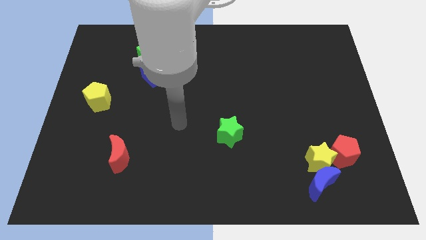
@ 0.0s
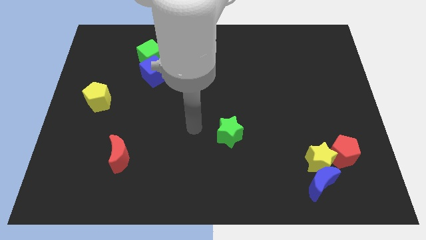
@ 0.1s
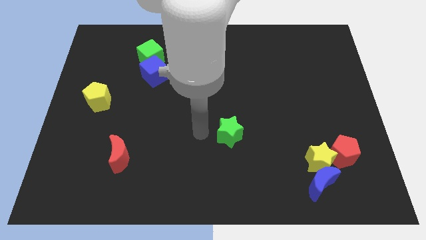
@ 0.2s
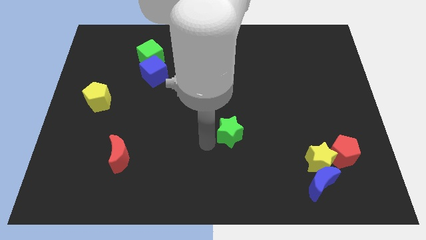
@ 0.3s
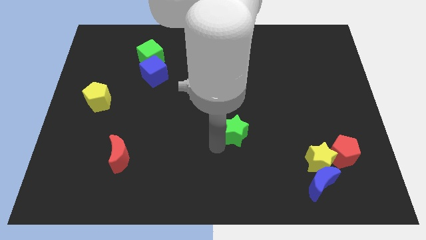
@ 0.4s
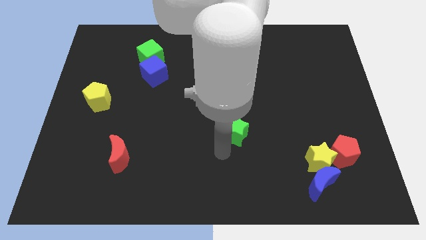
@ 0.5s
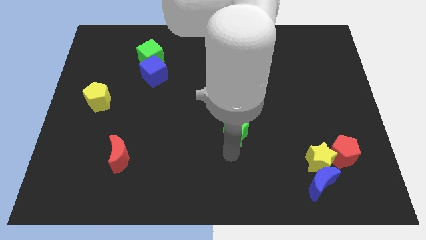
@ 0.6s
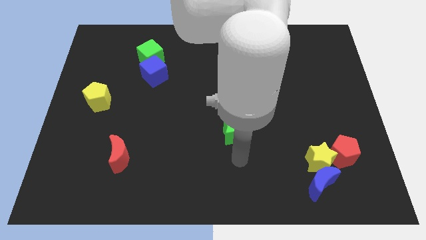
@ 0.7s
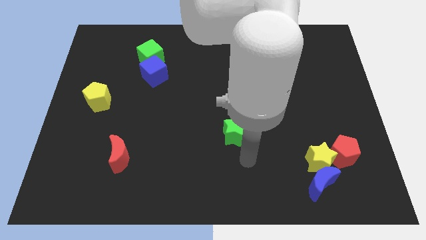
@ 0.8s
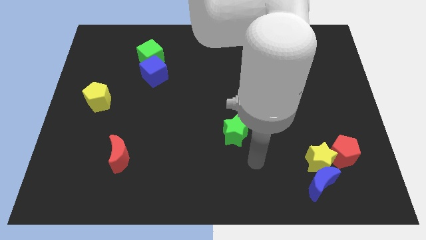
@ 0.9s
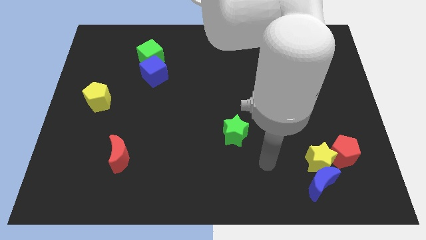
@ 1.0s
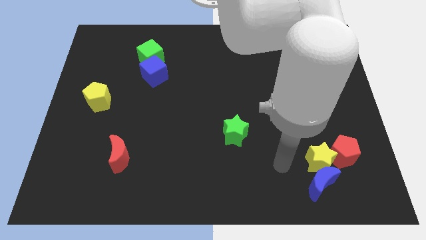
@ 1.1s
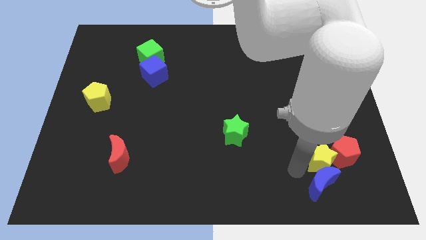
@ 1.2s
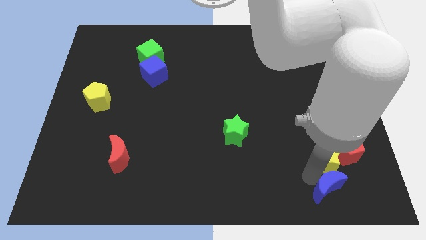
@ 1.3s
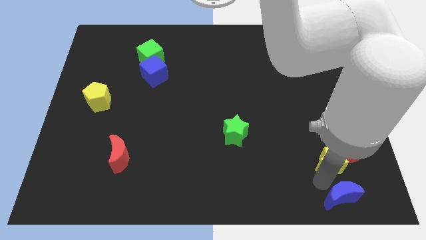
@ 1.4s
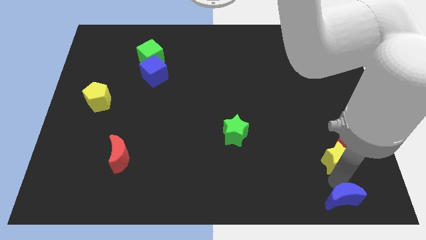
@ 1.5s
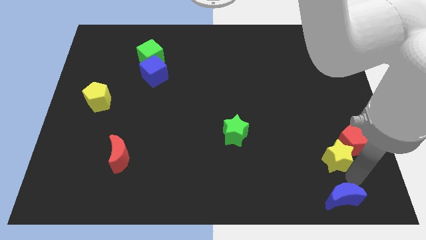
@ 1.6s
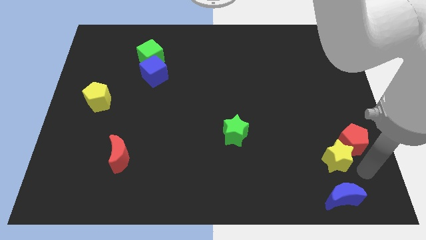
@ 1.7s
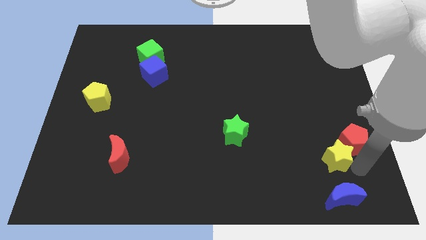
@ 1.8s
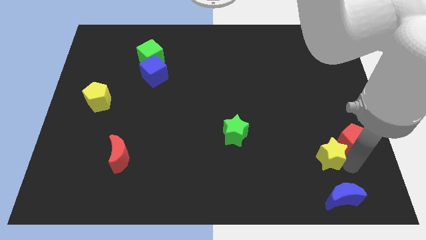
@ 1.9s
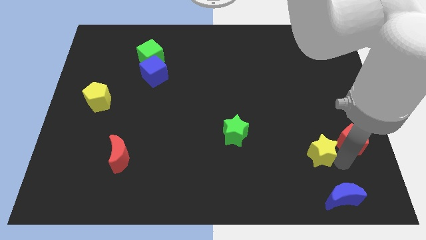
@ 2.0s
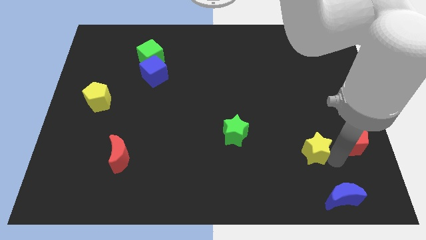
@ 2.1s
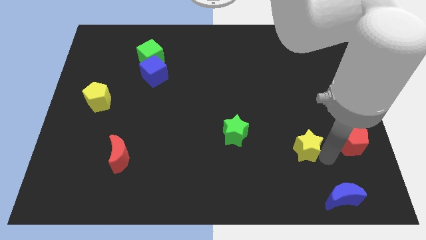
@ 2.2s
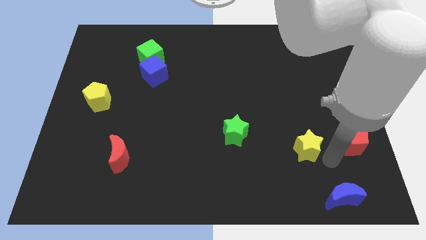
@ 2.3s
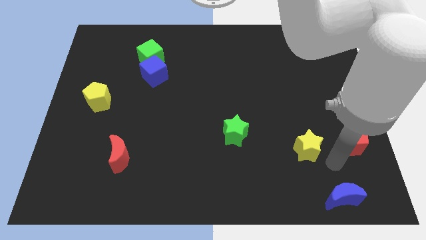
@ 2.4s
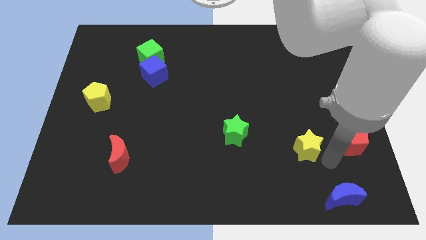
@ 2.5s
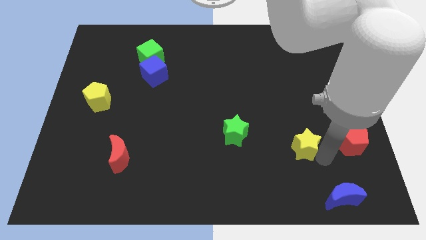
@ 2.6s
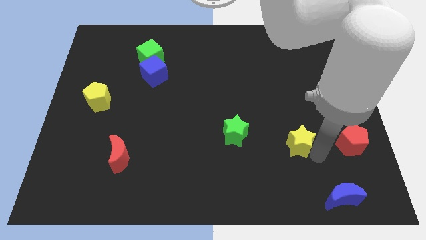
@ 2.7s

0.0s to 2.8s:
pull the yellow star apart from the blue moon and red pentagon

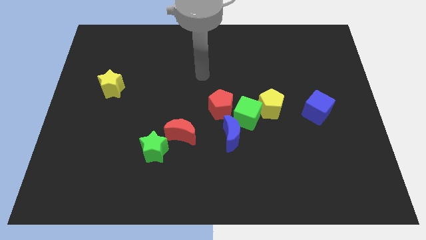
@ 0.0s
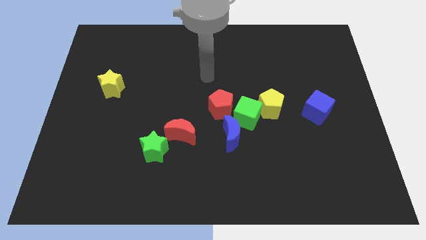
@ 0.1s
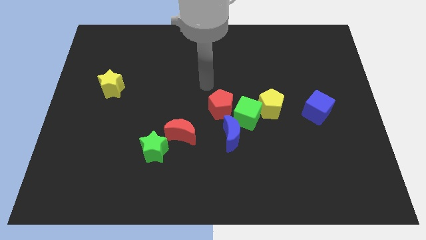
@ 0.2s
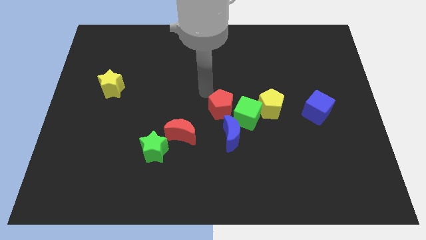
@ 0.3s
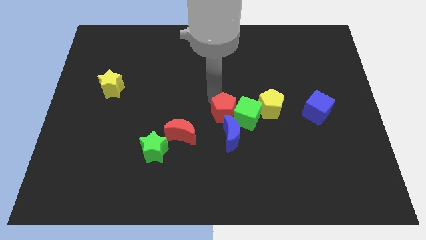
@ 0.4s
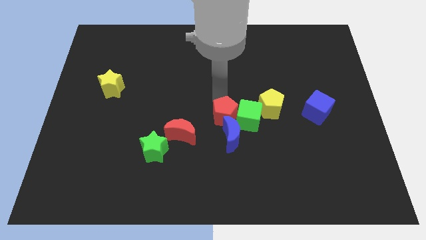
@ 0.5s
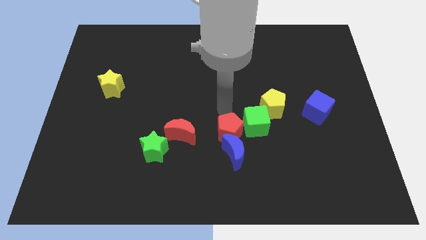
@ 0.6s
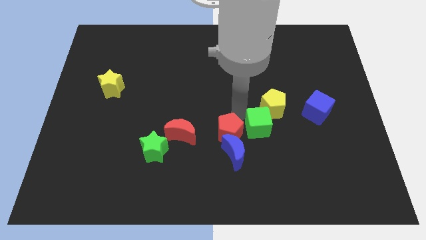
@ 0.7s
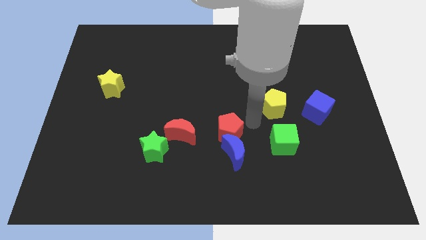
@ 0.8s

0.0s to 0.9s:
separate the yellow pentagon from the green cube

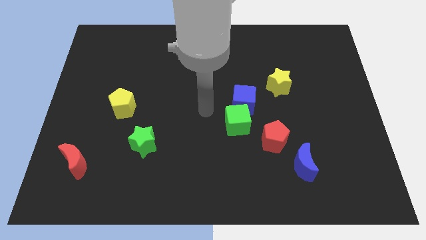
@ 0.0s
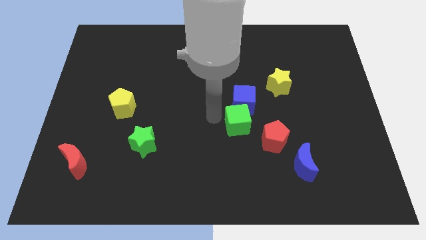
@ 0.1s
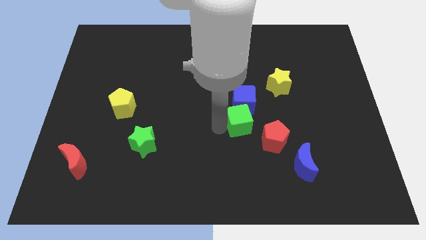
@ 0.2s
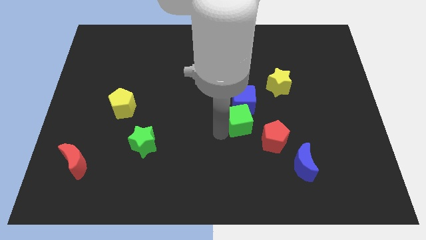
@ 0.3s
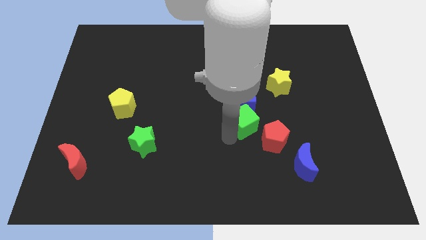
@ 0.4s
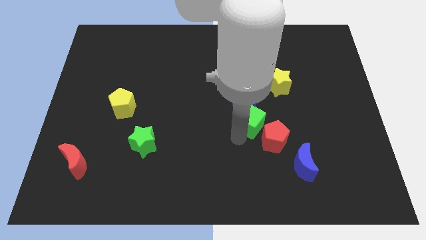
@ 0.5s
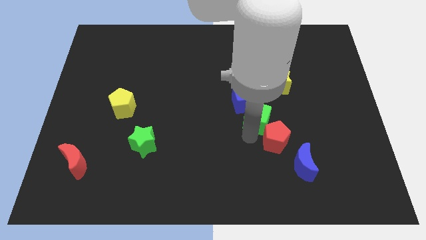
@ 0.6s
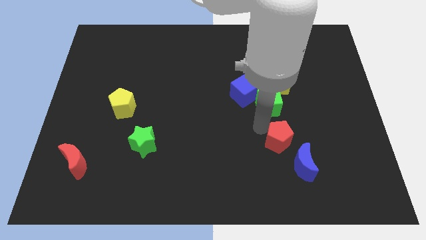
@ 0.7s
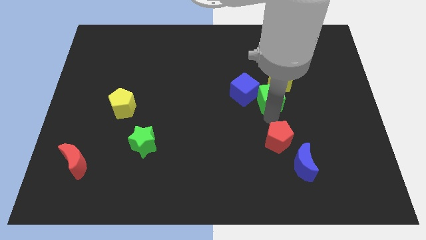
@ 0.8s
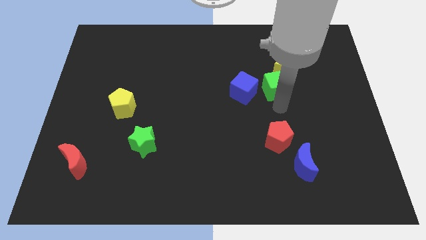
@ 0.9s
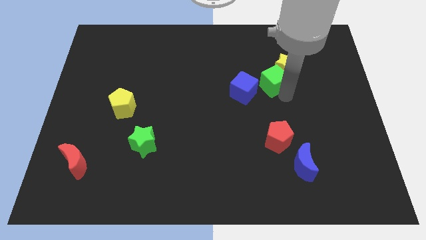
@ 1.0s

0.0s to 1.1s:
pull the green cube apart from the blue cube and red pentagon

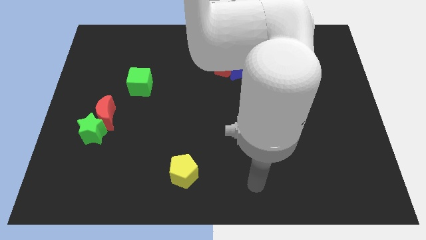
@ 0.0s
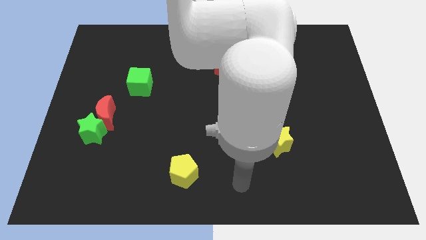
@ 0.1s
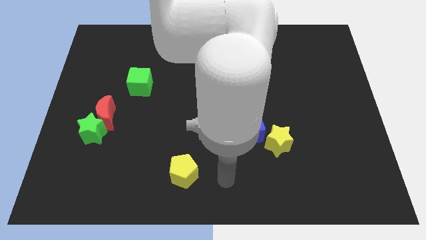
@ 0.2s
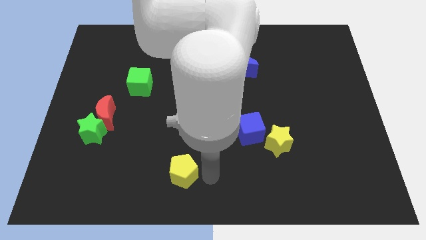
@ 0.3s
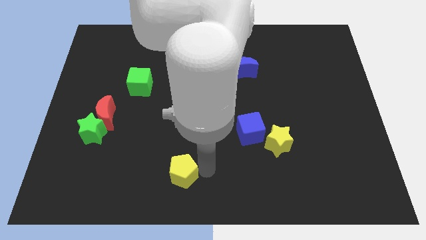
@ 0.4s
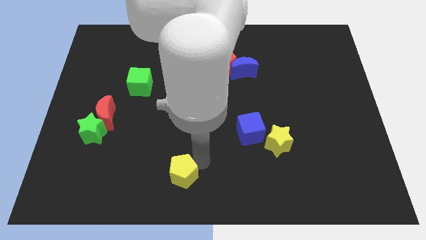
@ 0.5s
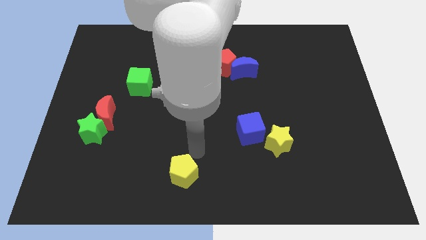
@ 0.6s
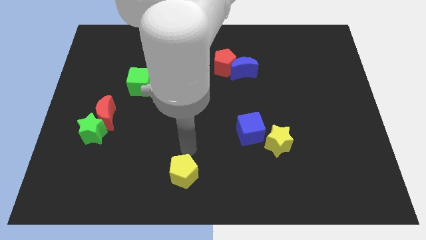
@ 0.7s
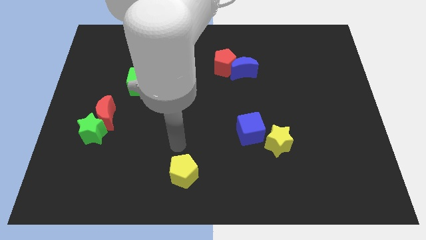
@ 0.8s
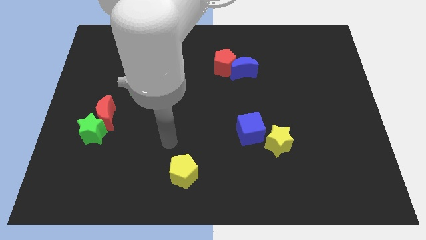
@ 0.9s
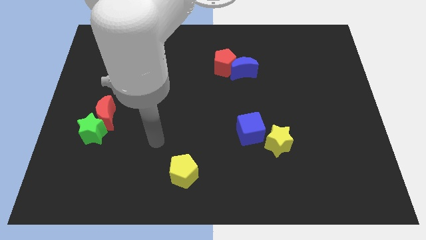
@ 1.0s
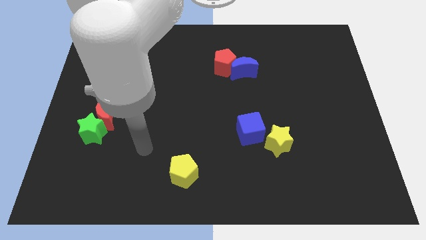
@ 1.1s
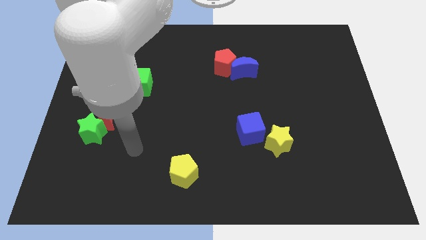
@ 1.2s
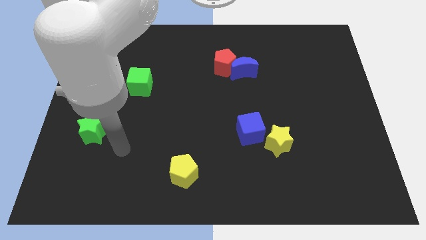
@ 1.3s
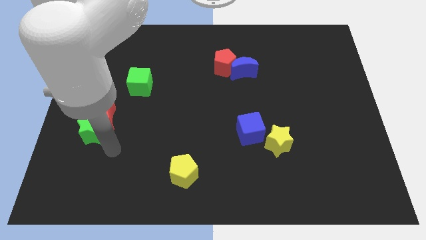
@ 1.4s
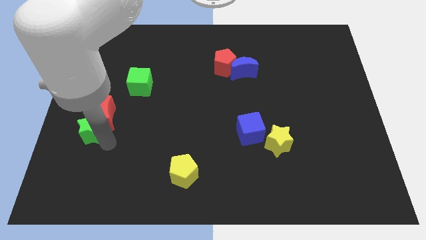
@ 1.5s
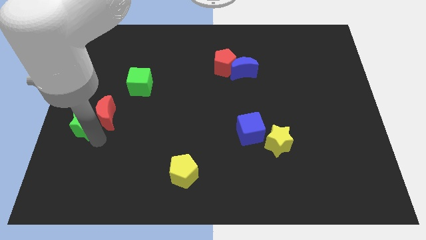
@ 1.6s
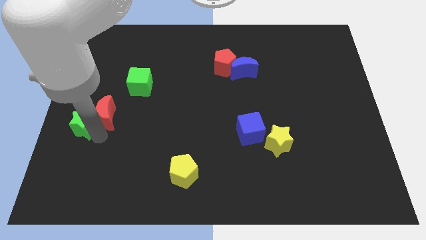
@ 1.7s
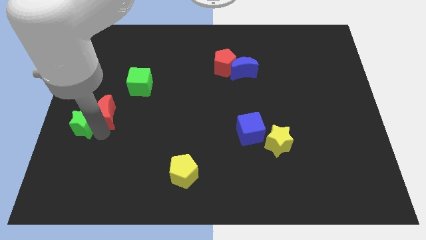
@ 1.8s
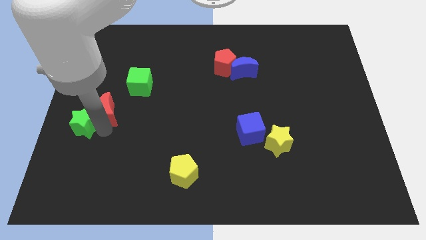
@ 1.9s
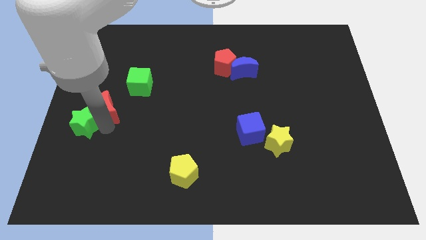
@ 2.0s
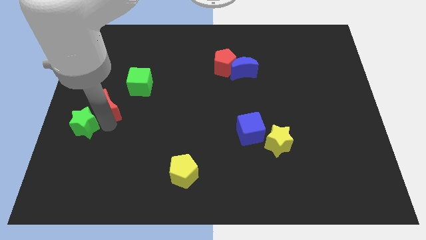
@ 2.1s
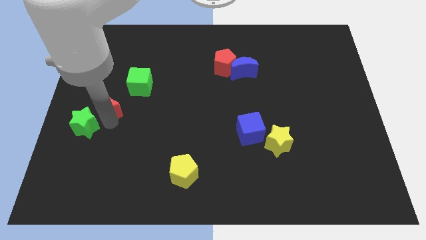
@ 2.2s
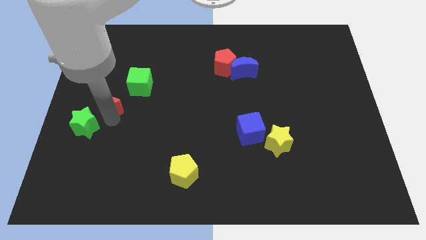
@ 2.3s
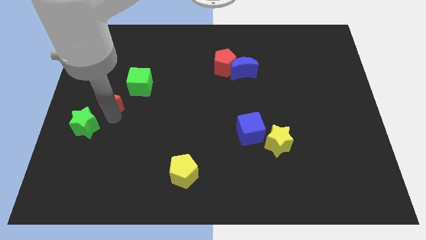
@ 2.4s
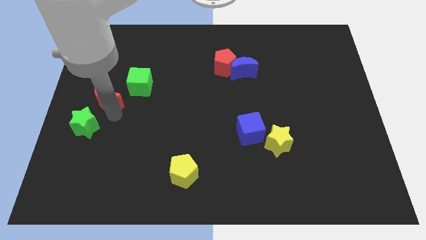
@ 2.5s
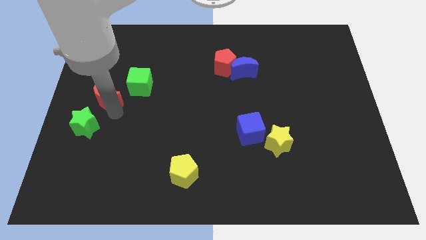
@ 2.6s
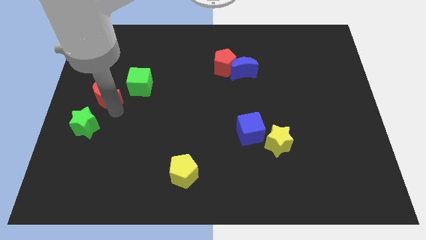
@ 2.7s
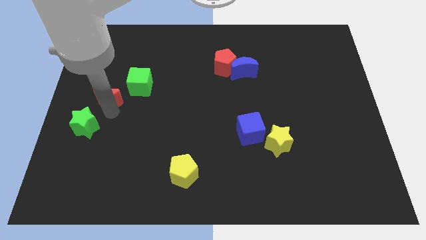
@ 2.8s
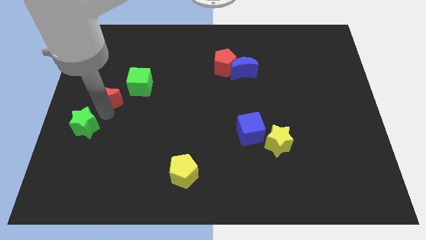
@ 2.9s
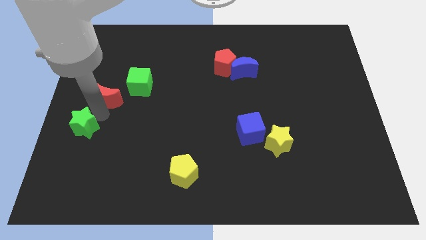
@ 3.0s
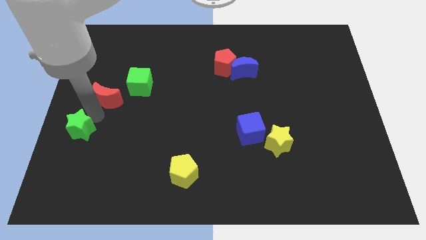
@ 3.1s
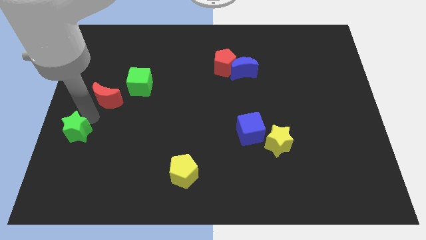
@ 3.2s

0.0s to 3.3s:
separate the red moon from the green star

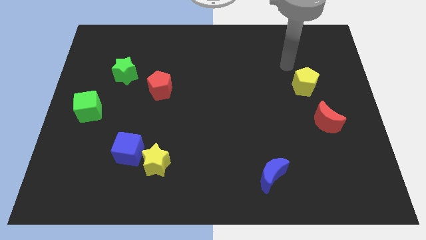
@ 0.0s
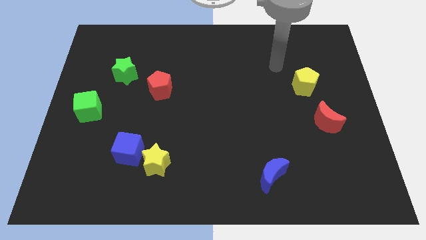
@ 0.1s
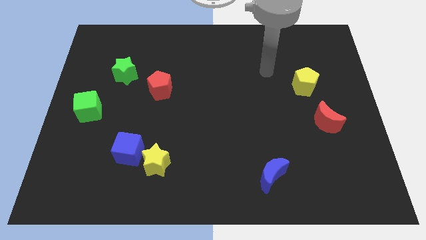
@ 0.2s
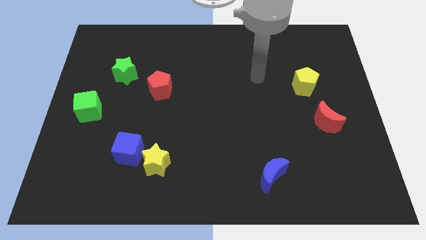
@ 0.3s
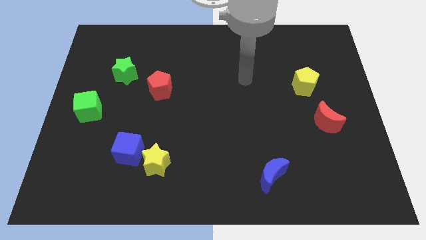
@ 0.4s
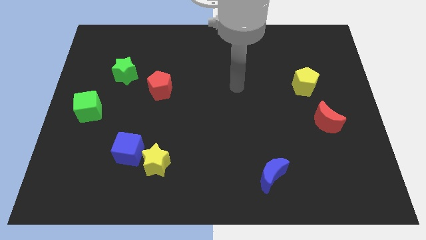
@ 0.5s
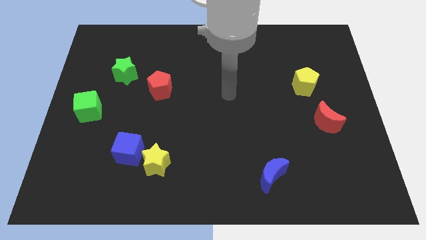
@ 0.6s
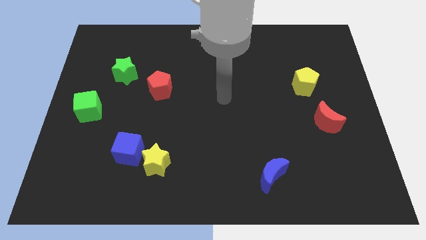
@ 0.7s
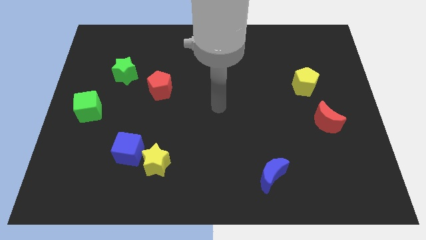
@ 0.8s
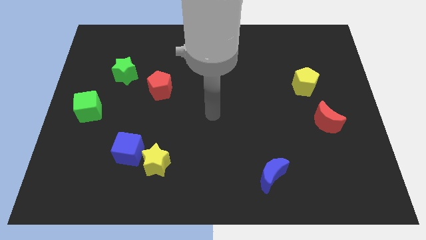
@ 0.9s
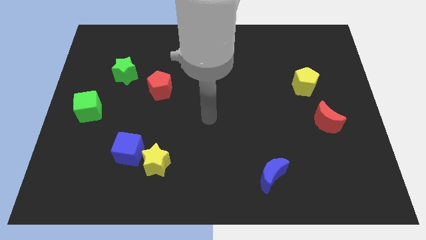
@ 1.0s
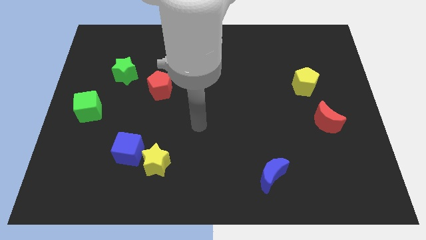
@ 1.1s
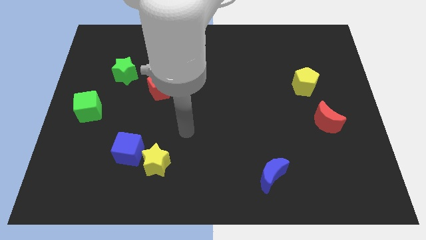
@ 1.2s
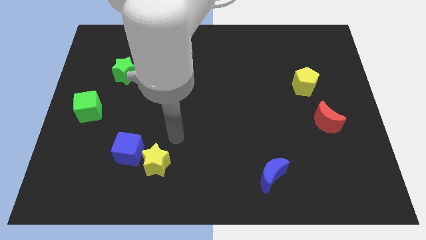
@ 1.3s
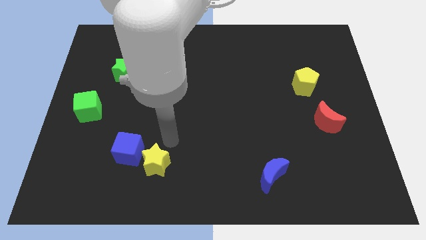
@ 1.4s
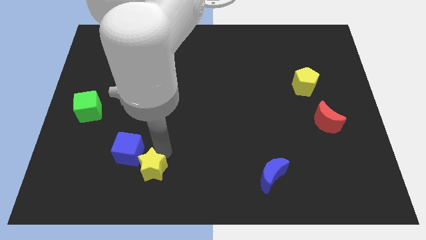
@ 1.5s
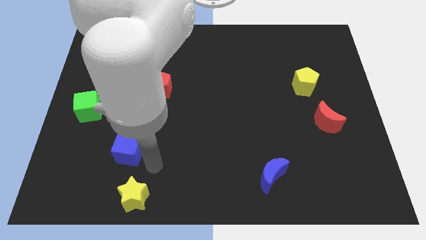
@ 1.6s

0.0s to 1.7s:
separate the blue cube from the yellow star
